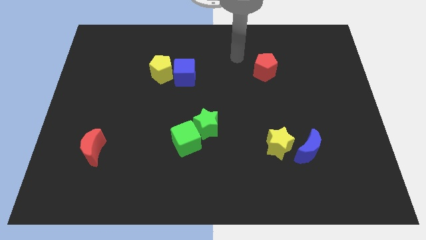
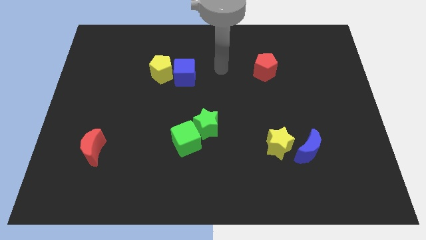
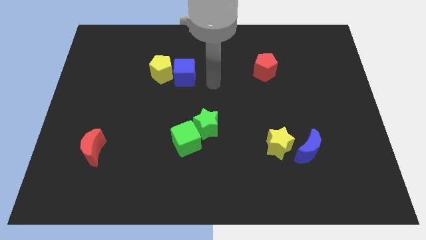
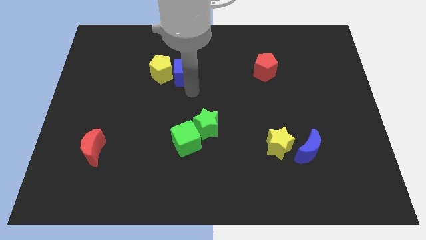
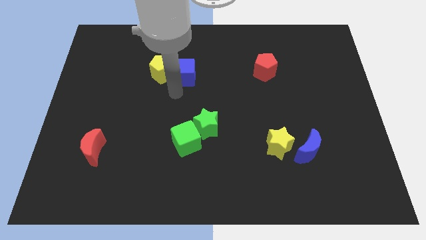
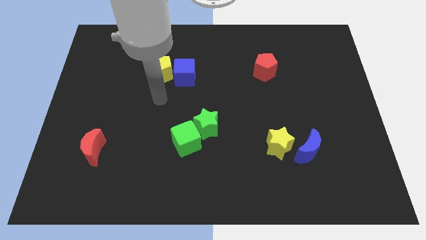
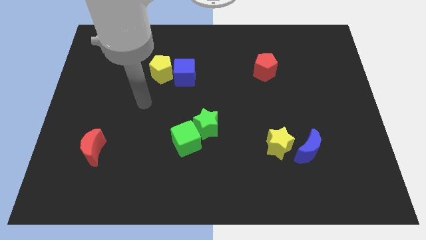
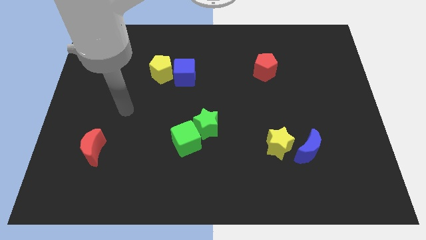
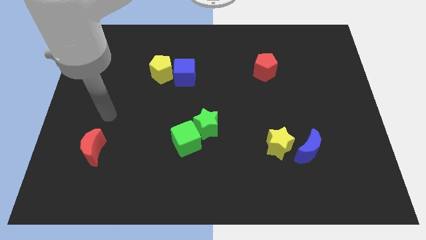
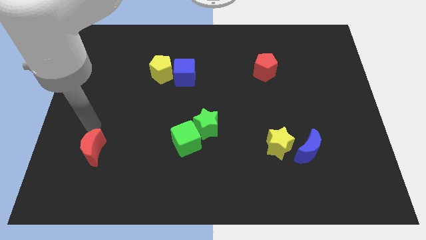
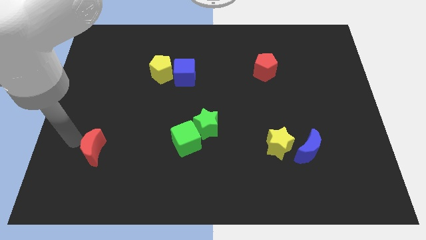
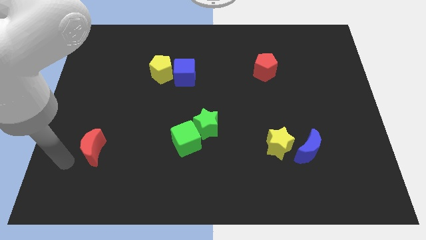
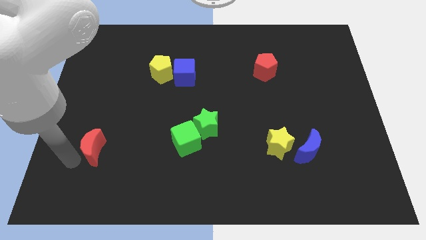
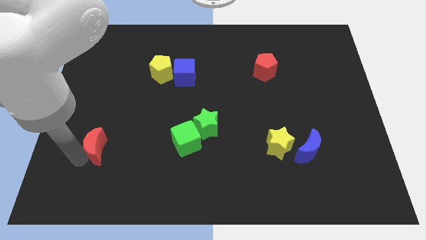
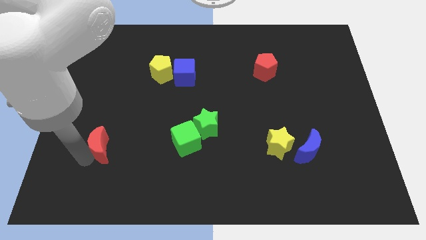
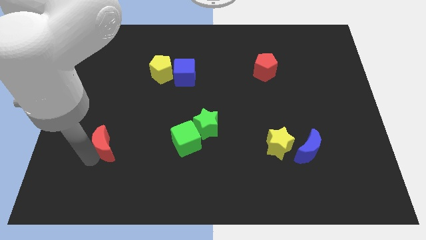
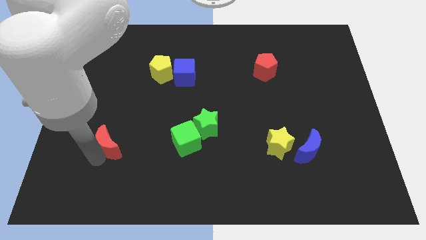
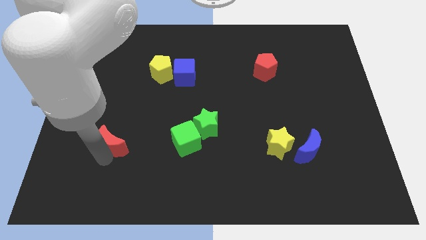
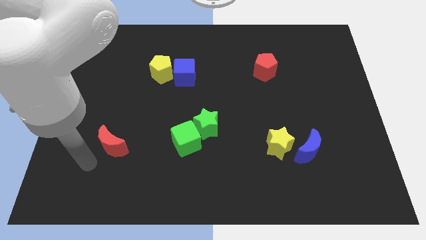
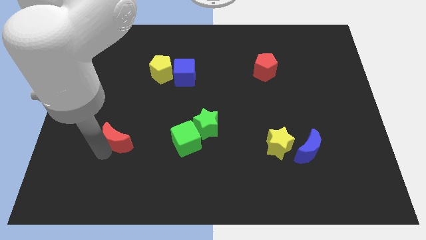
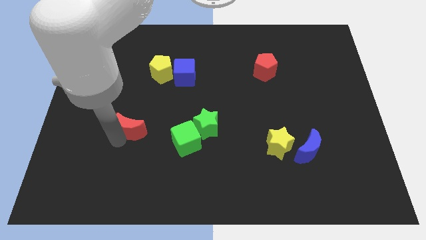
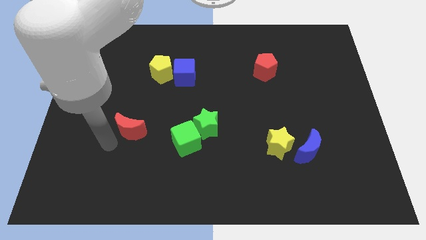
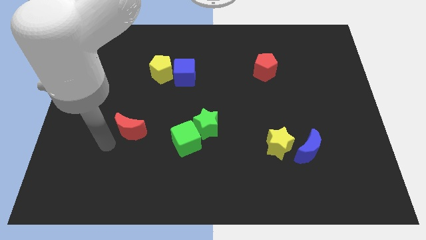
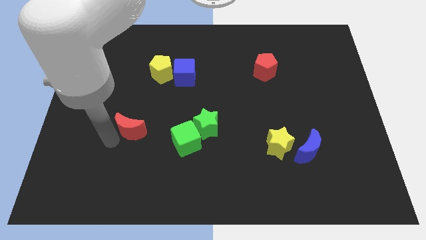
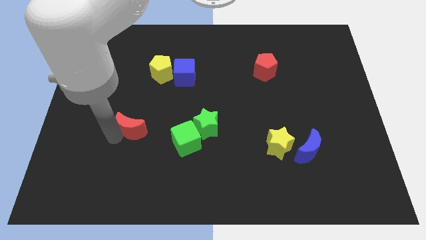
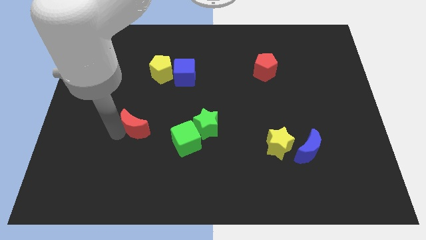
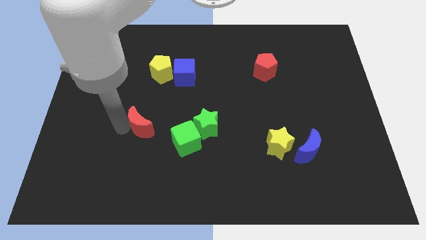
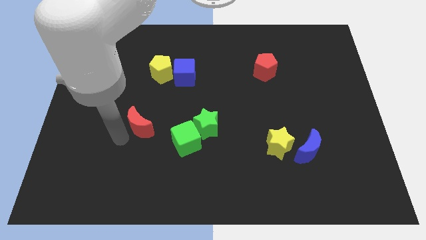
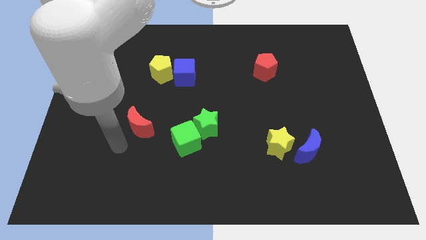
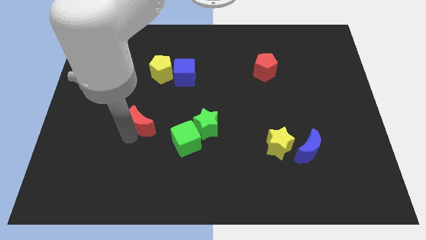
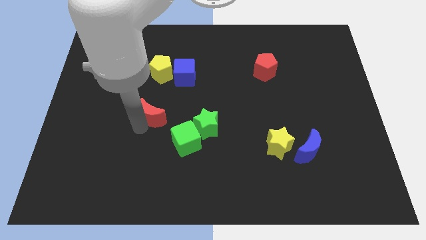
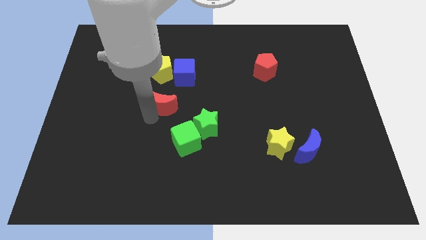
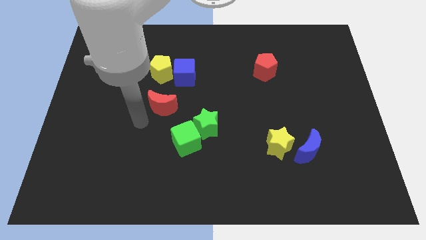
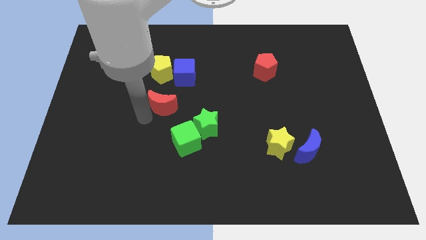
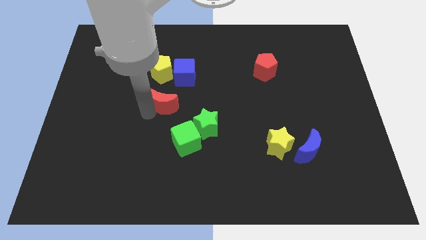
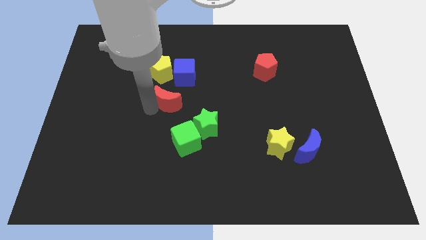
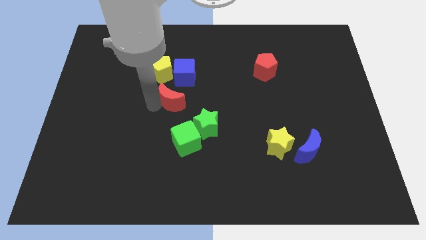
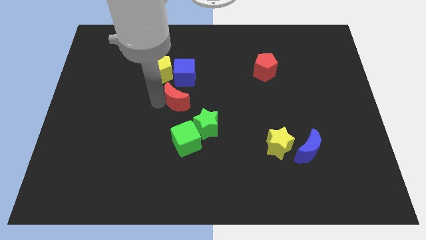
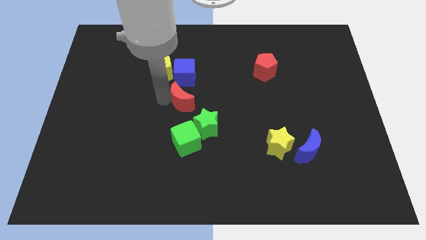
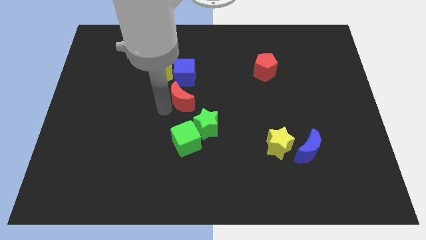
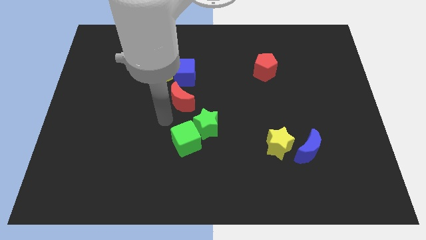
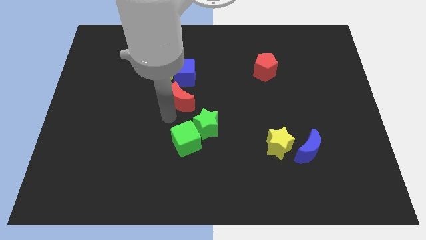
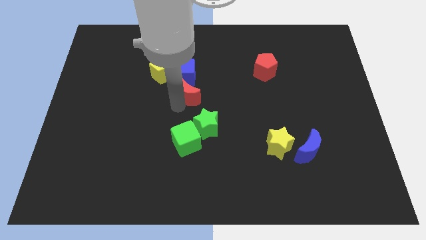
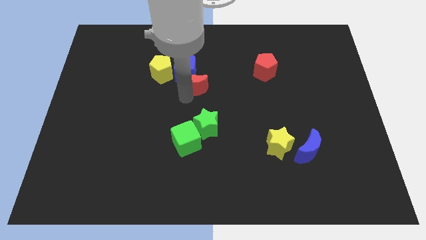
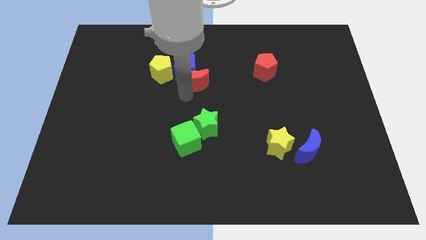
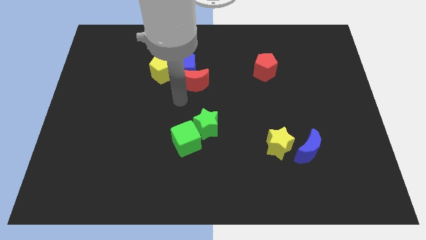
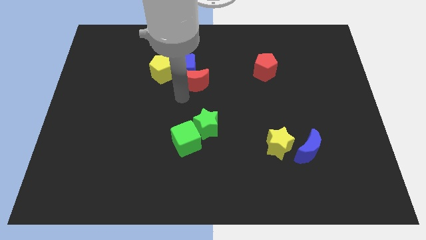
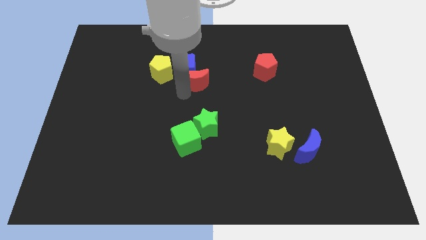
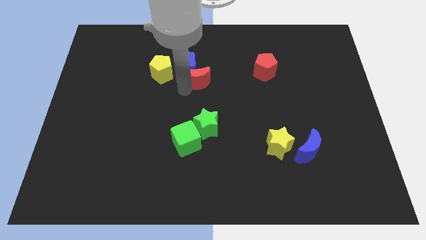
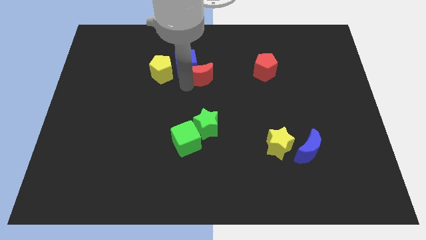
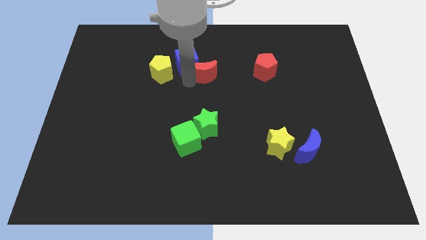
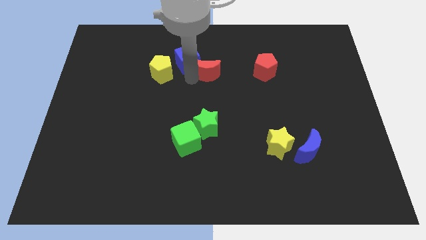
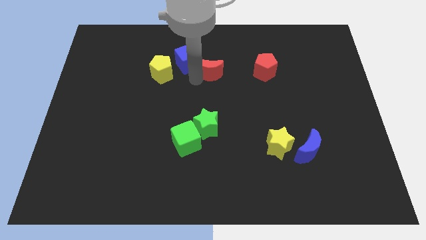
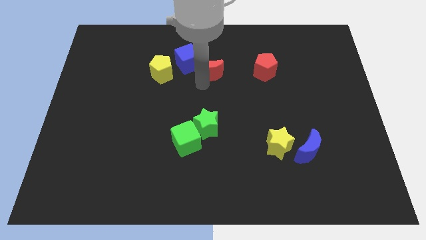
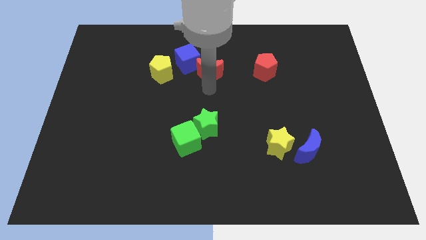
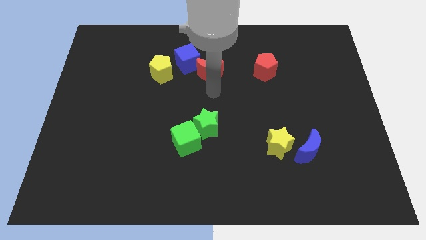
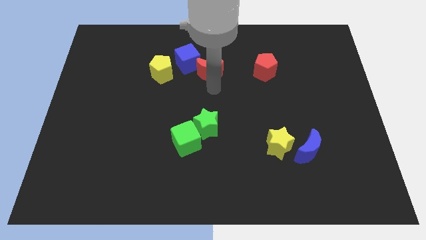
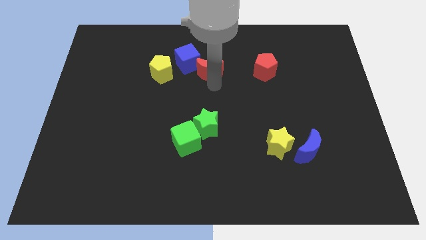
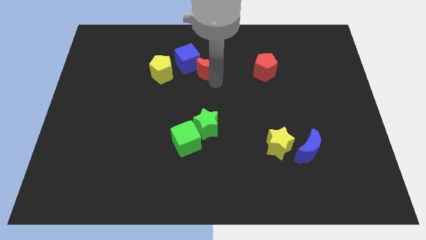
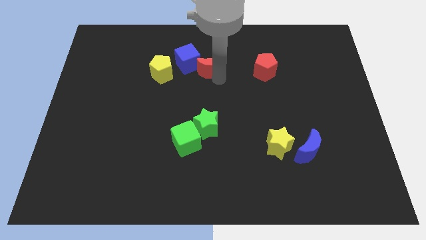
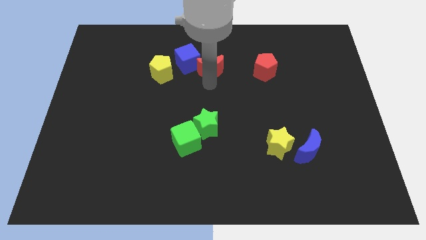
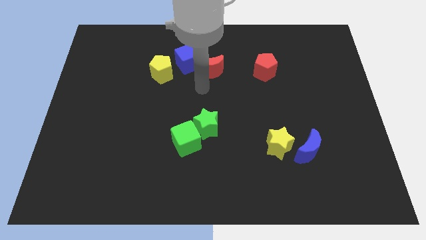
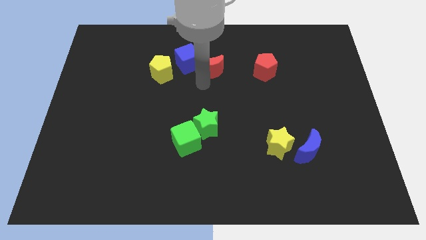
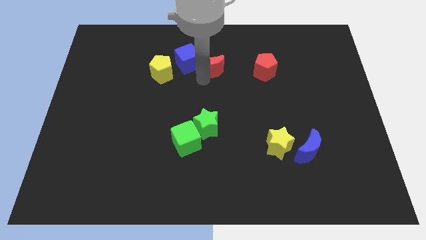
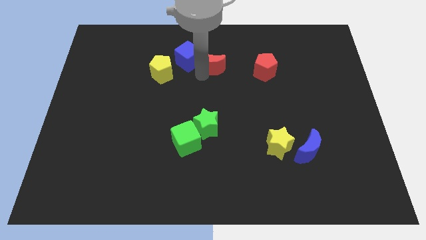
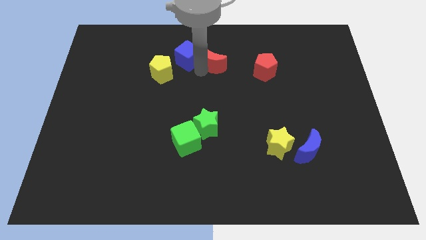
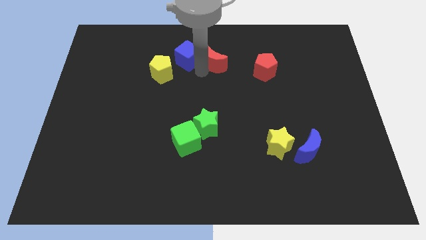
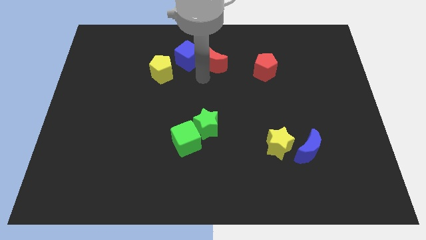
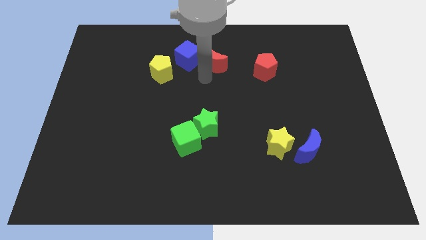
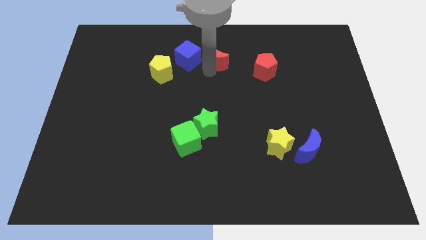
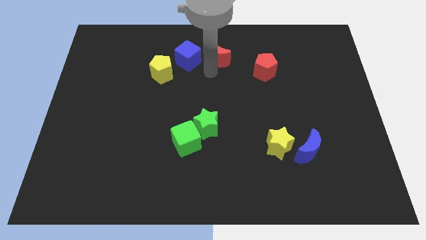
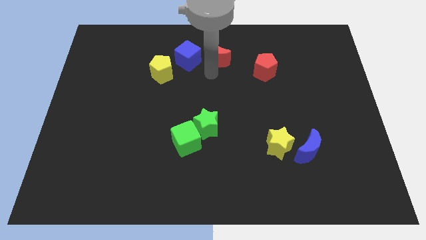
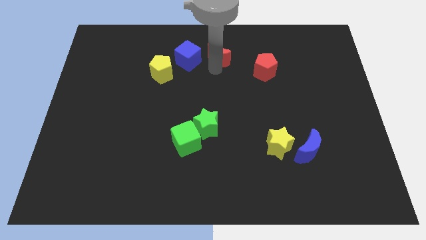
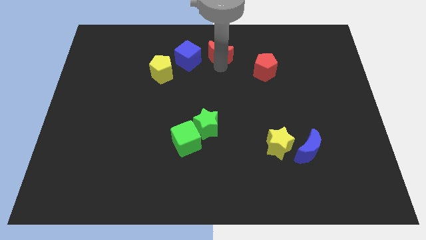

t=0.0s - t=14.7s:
push the red moon to the towards your base
